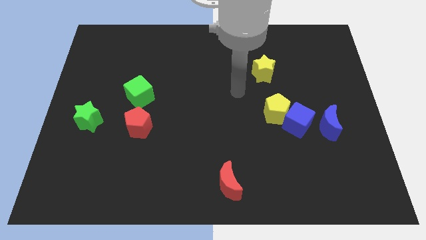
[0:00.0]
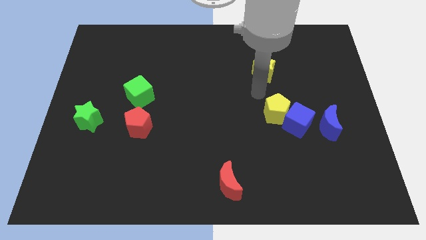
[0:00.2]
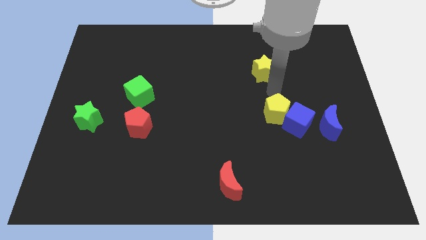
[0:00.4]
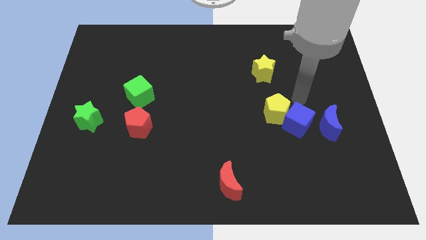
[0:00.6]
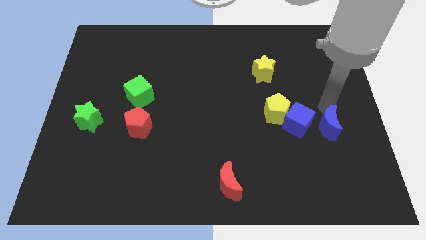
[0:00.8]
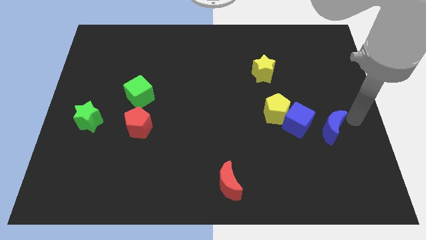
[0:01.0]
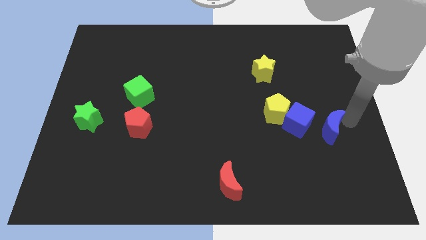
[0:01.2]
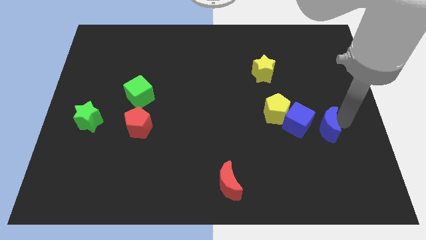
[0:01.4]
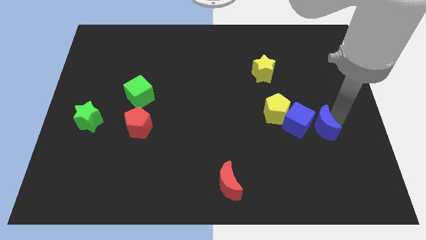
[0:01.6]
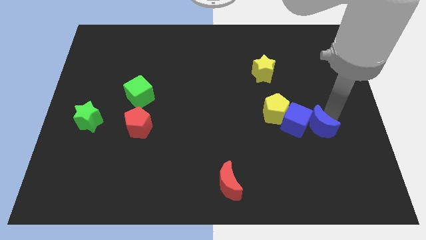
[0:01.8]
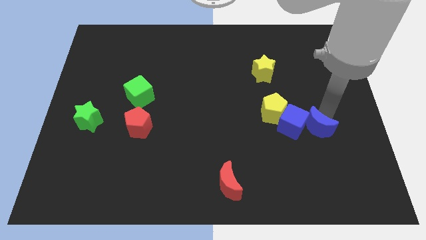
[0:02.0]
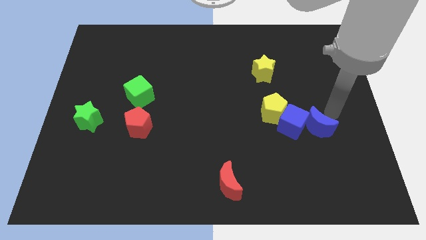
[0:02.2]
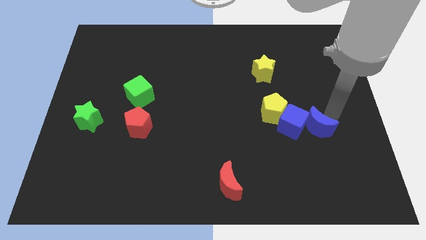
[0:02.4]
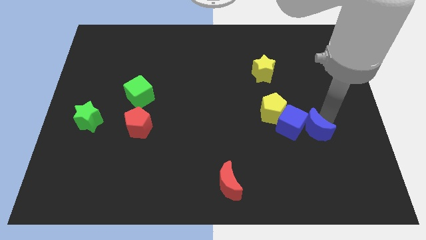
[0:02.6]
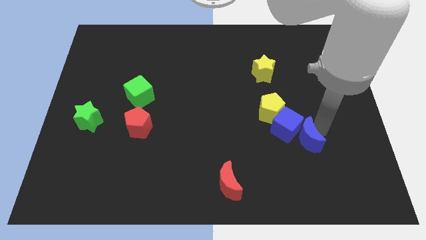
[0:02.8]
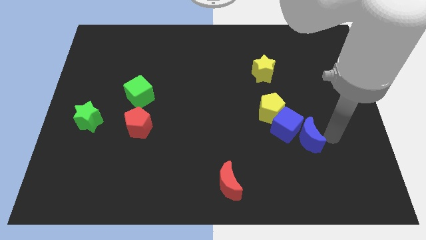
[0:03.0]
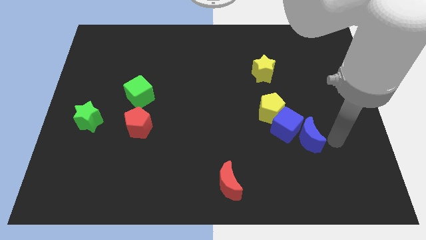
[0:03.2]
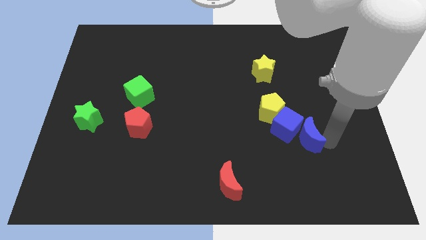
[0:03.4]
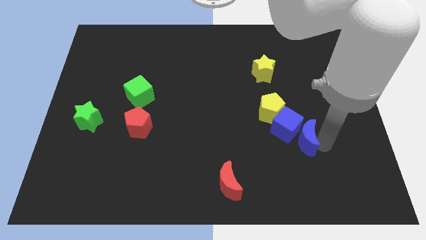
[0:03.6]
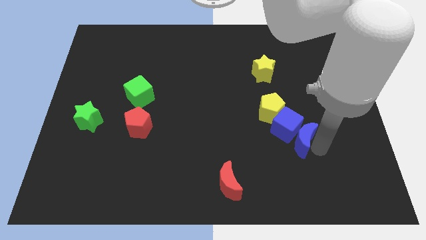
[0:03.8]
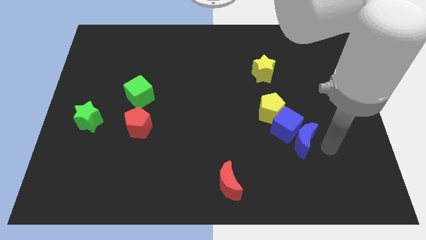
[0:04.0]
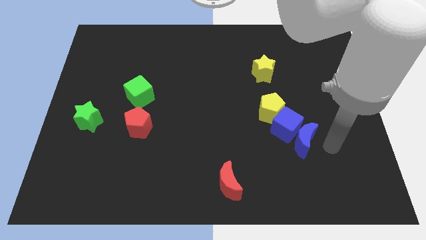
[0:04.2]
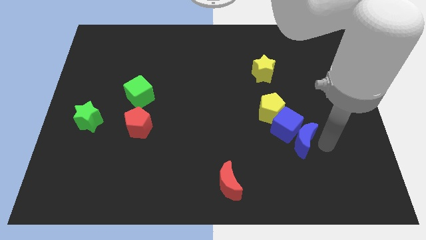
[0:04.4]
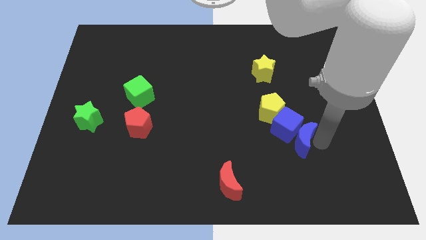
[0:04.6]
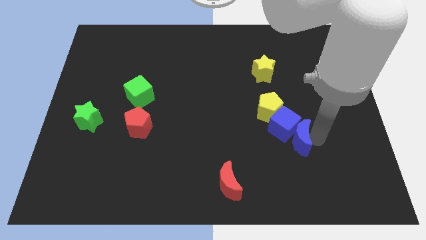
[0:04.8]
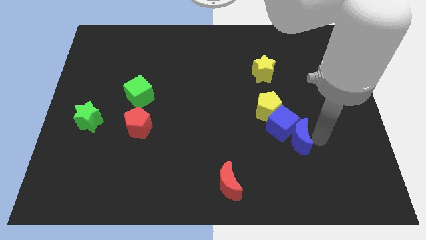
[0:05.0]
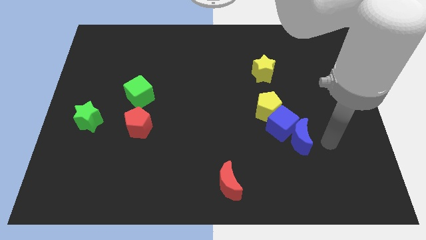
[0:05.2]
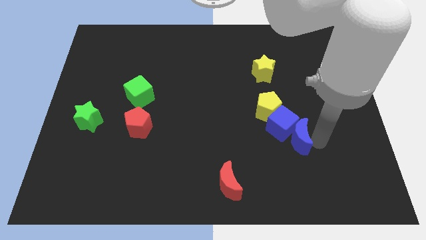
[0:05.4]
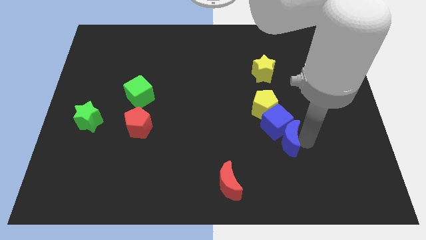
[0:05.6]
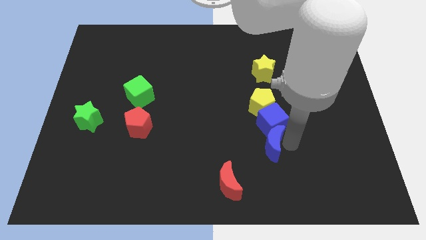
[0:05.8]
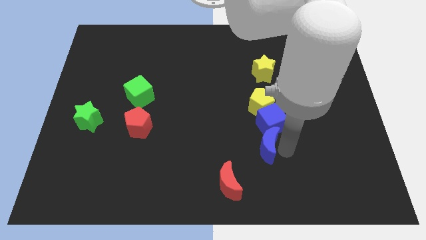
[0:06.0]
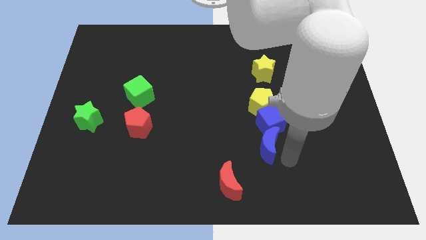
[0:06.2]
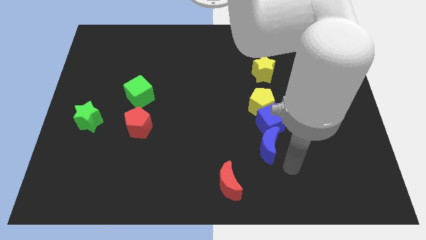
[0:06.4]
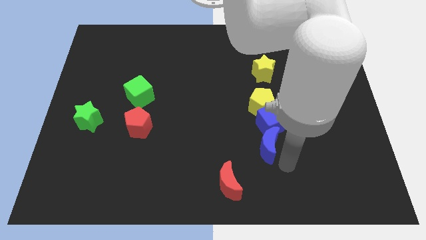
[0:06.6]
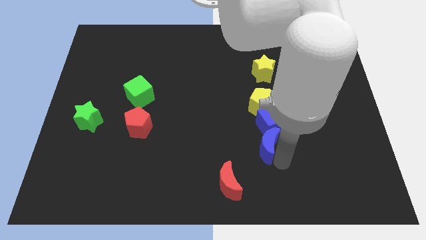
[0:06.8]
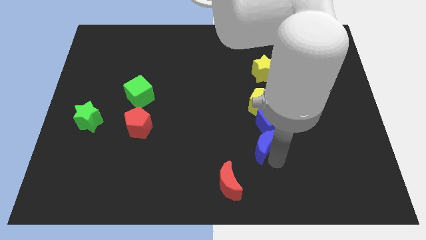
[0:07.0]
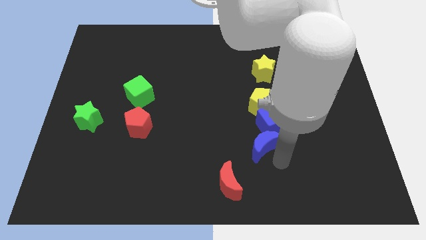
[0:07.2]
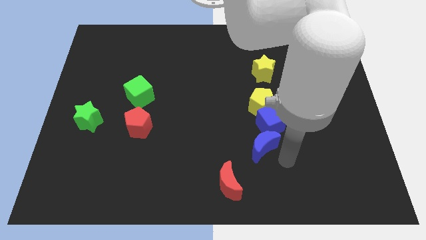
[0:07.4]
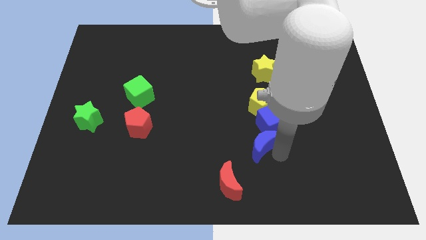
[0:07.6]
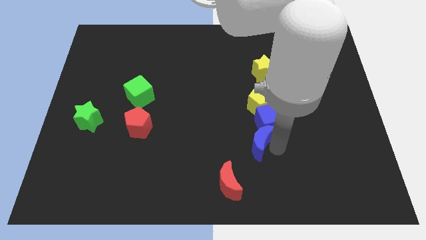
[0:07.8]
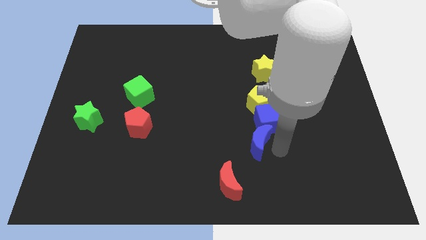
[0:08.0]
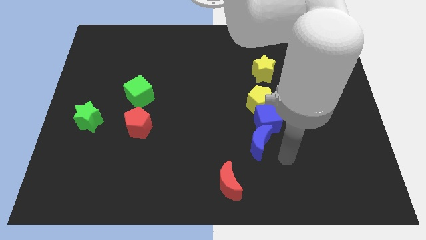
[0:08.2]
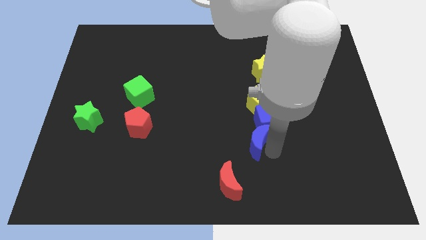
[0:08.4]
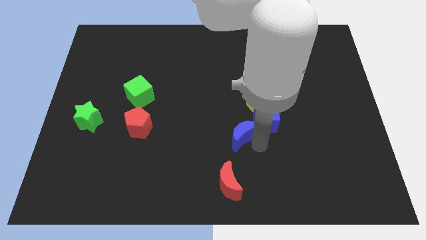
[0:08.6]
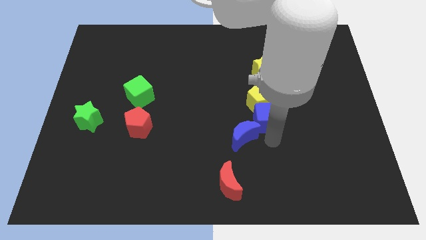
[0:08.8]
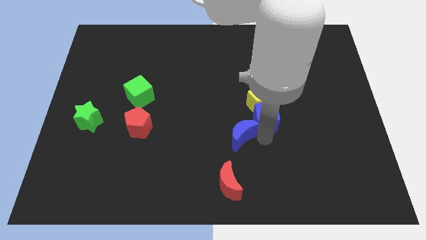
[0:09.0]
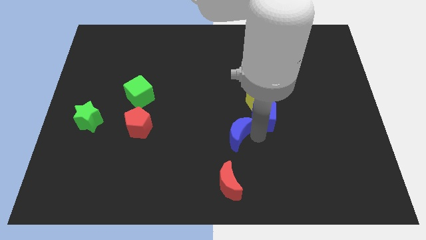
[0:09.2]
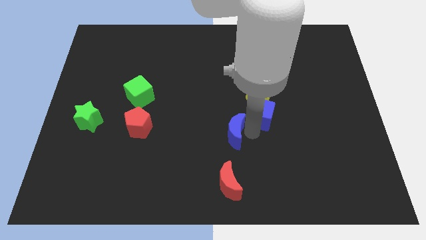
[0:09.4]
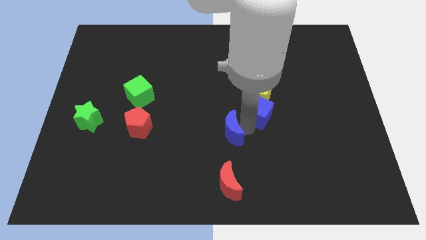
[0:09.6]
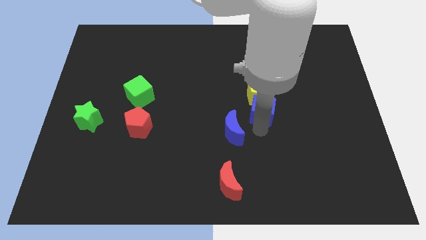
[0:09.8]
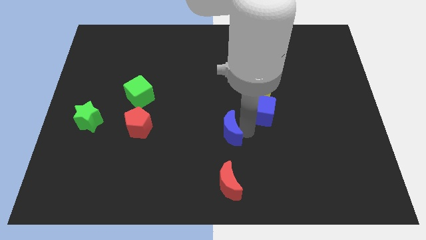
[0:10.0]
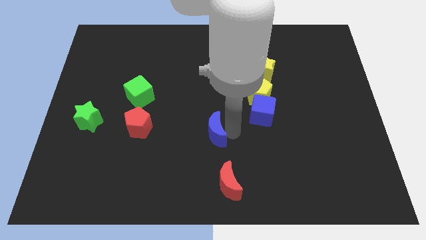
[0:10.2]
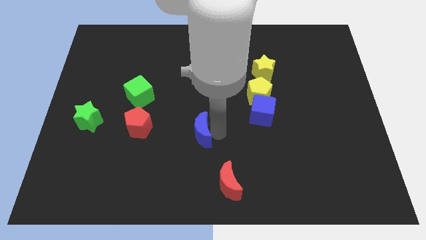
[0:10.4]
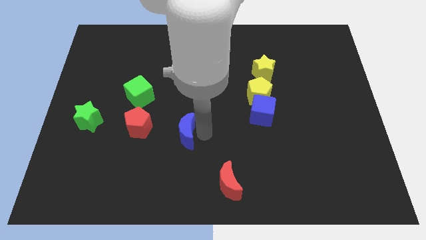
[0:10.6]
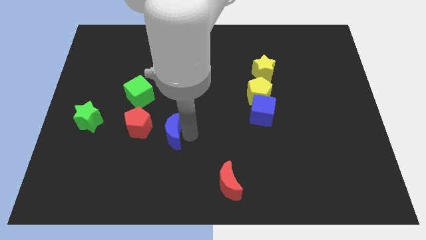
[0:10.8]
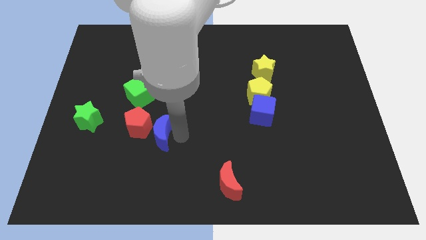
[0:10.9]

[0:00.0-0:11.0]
put the blue moon next to the red pentagon

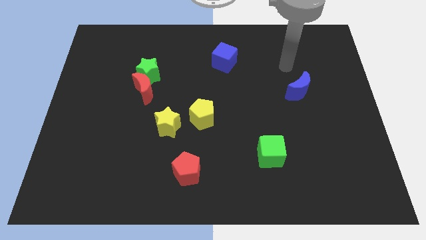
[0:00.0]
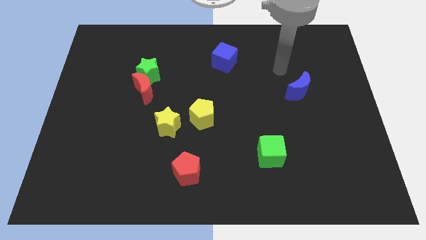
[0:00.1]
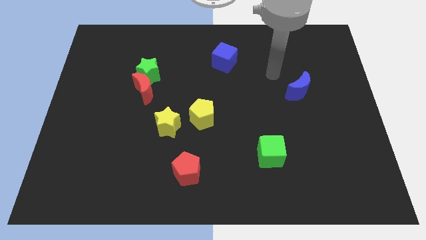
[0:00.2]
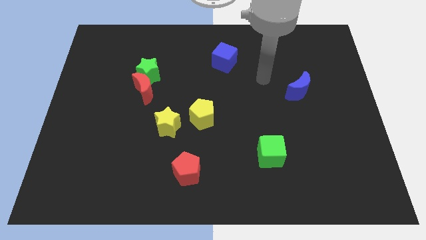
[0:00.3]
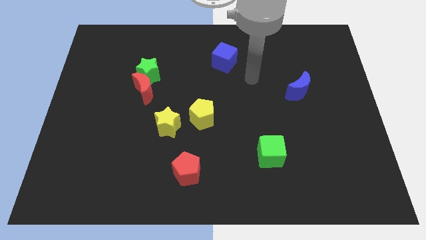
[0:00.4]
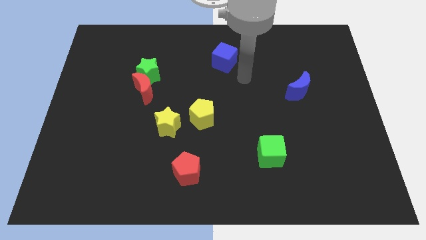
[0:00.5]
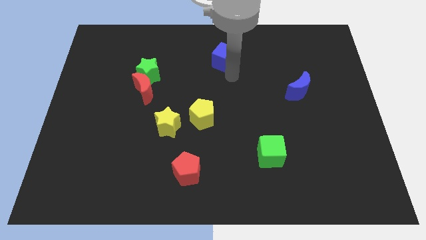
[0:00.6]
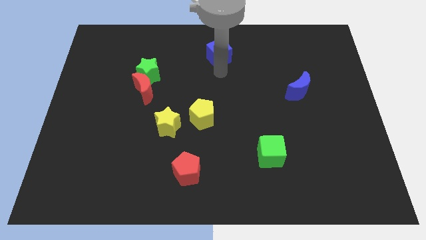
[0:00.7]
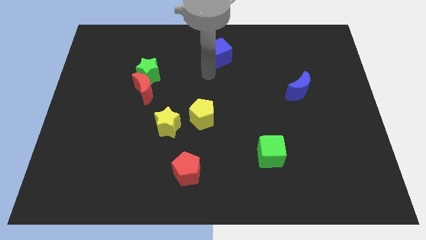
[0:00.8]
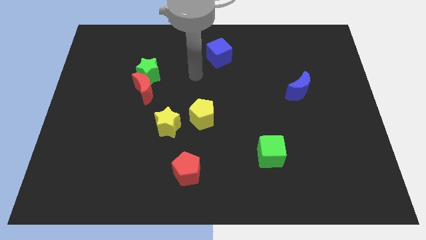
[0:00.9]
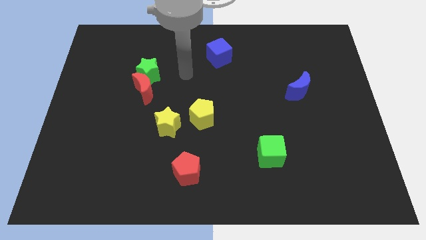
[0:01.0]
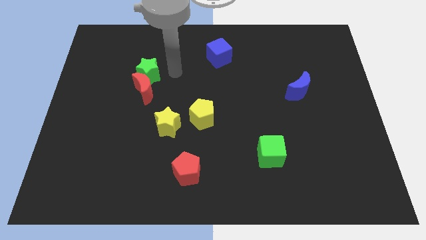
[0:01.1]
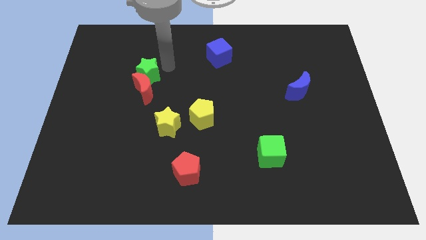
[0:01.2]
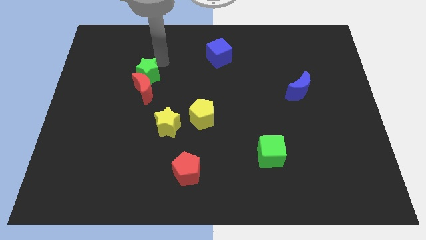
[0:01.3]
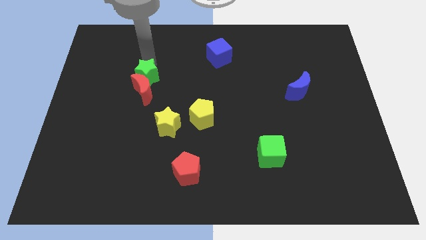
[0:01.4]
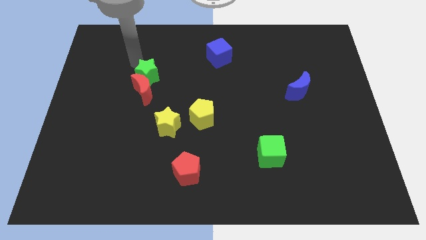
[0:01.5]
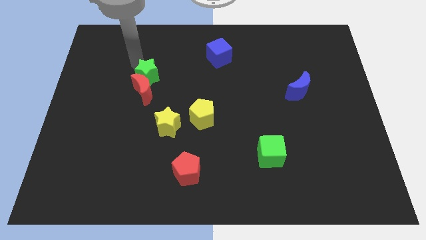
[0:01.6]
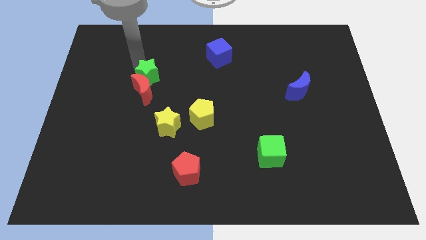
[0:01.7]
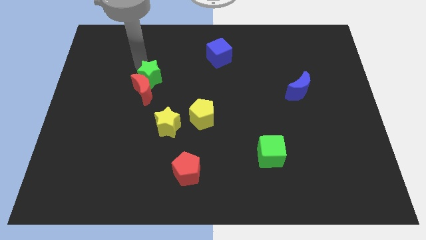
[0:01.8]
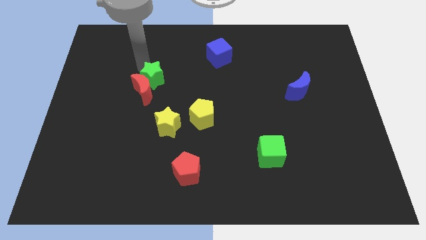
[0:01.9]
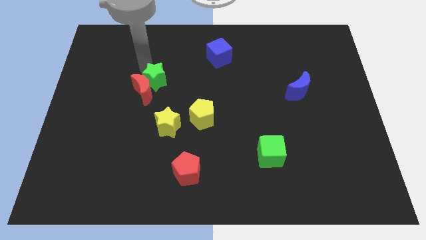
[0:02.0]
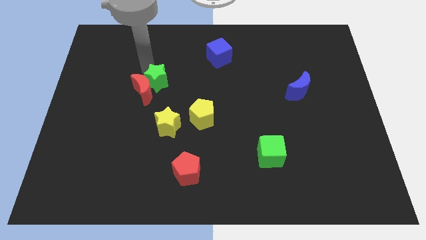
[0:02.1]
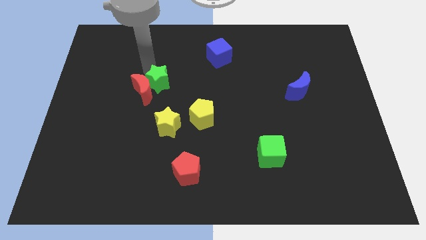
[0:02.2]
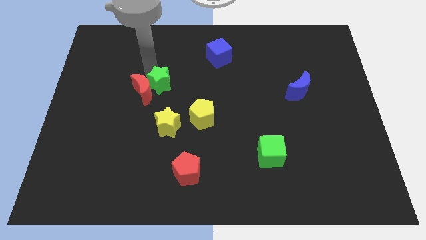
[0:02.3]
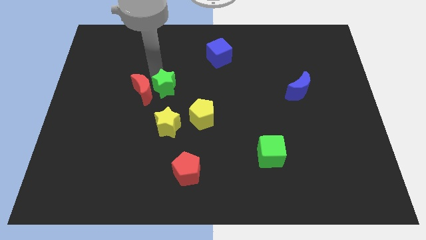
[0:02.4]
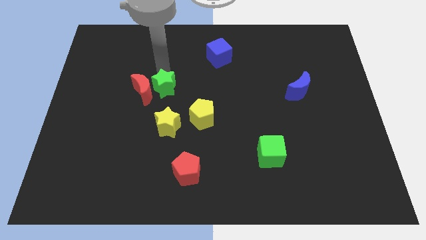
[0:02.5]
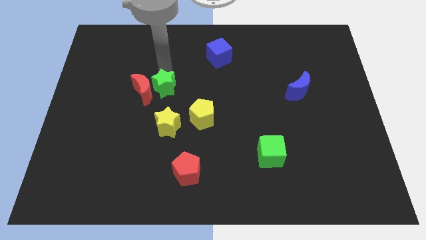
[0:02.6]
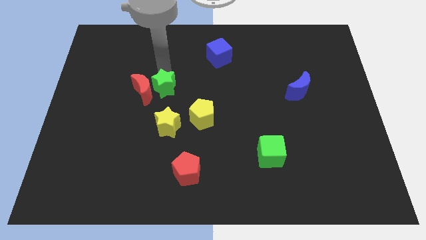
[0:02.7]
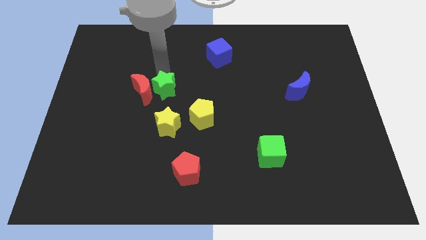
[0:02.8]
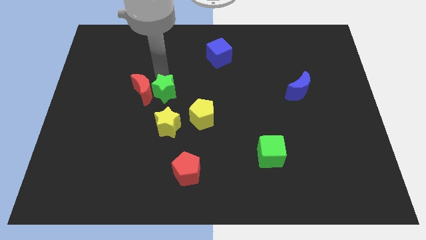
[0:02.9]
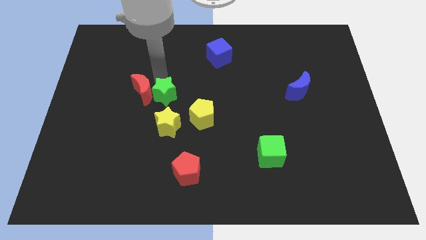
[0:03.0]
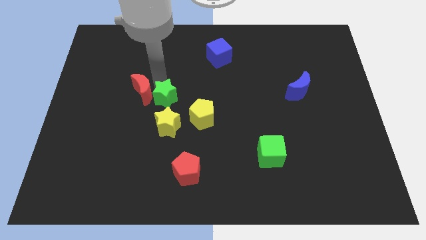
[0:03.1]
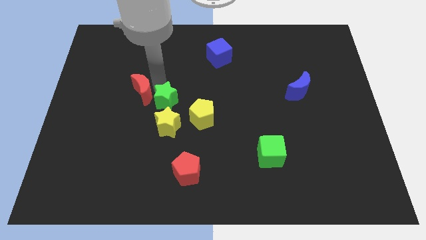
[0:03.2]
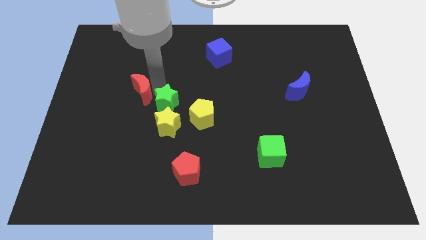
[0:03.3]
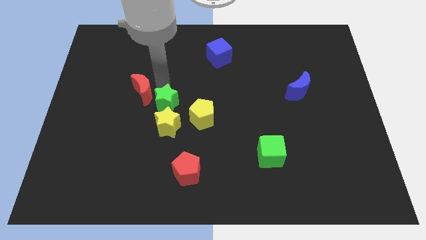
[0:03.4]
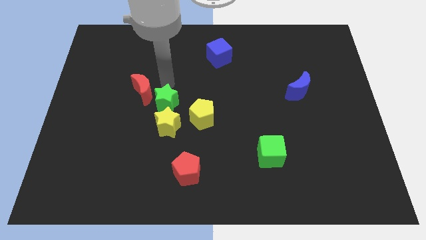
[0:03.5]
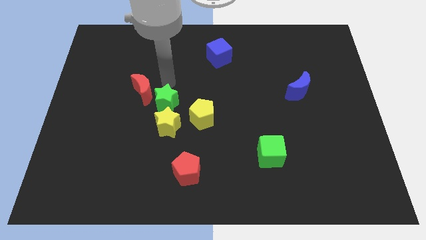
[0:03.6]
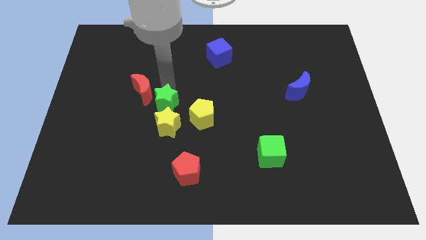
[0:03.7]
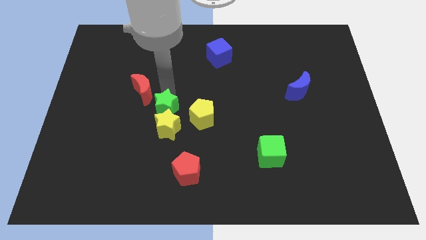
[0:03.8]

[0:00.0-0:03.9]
push the green star to the yellow star
